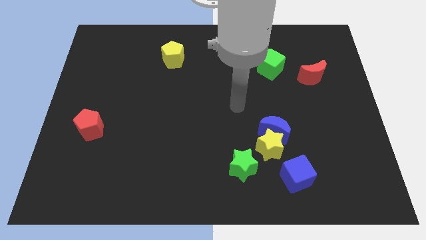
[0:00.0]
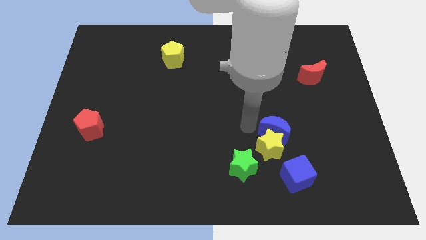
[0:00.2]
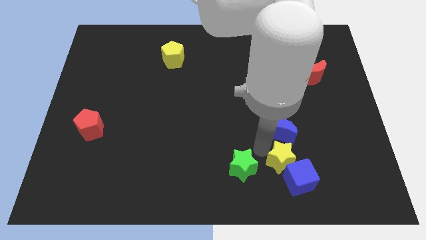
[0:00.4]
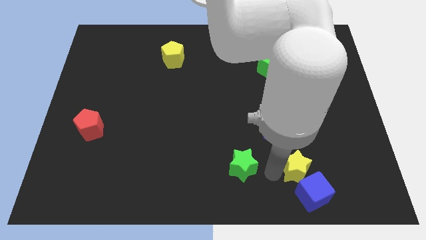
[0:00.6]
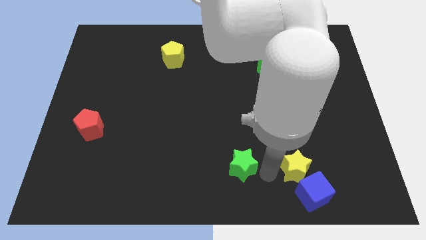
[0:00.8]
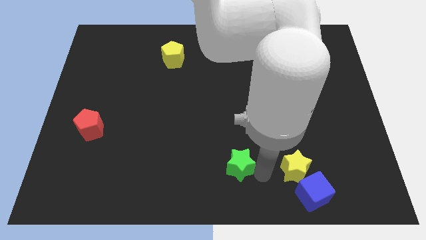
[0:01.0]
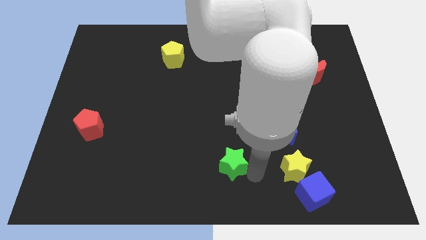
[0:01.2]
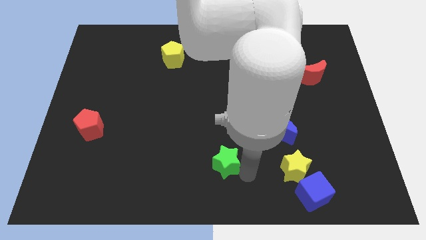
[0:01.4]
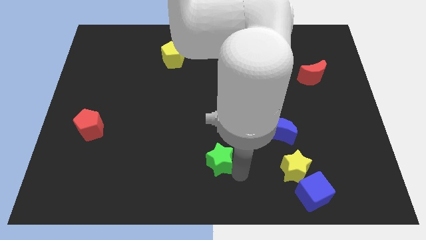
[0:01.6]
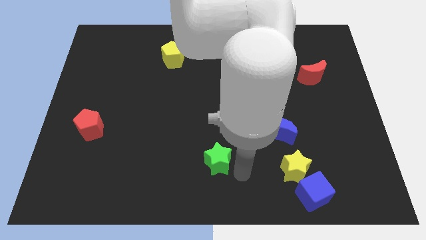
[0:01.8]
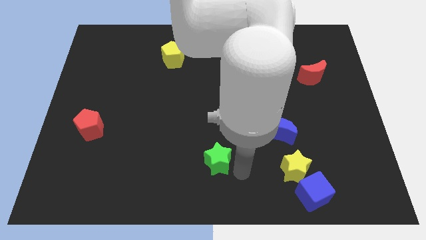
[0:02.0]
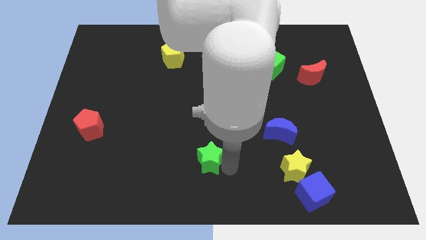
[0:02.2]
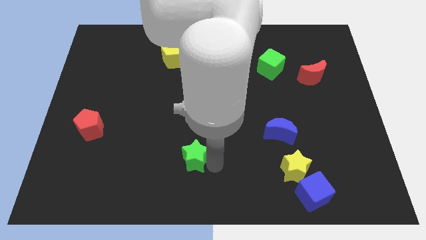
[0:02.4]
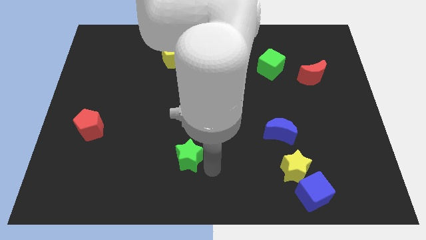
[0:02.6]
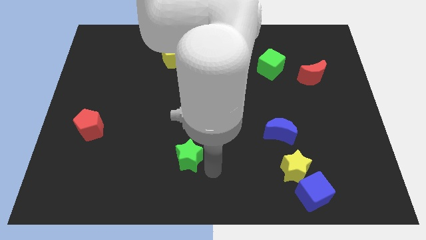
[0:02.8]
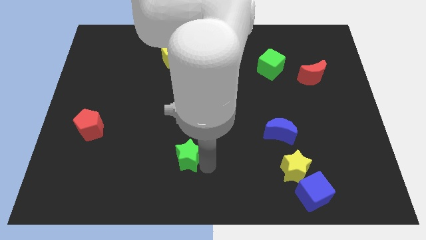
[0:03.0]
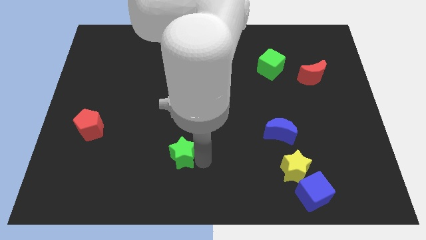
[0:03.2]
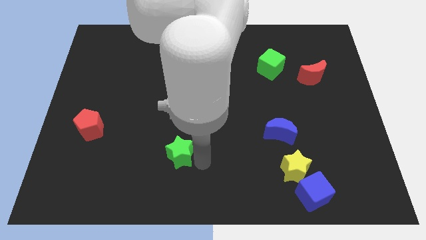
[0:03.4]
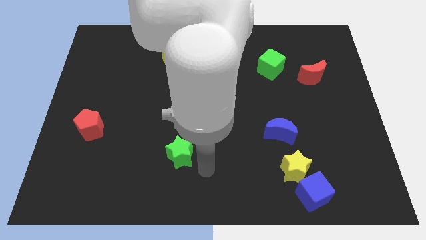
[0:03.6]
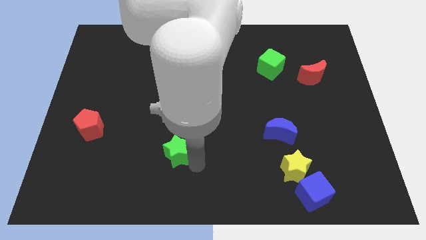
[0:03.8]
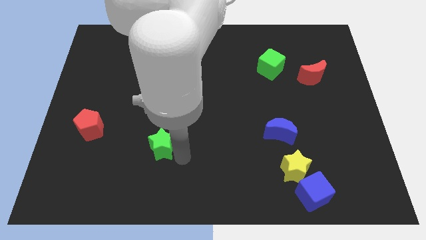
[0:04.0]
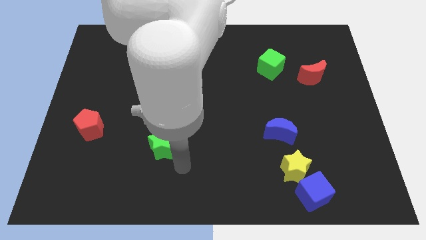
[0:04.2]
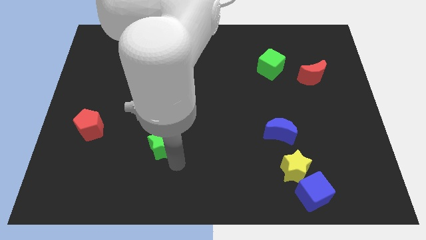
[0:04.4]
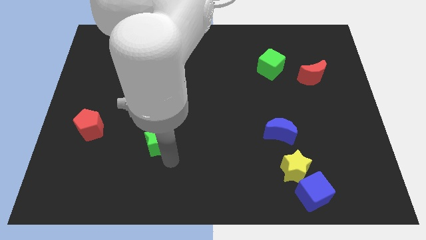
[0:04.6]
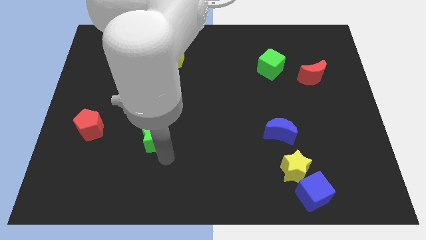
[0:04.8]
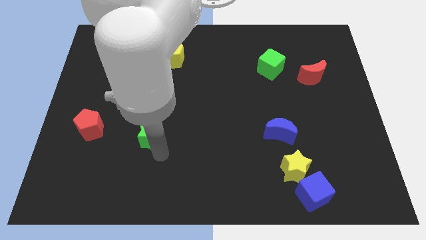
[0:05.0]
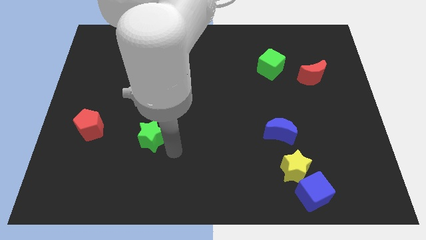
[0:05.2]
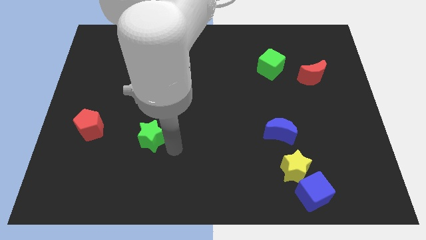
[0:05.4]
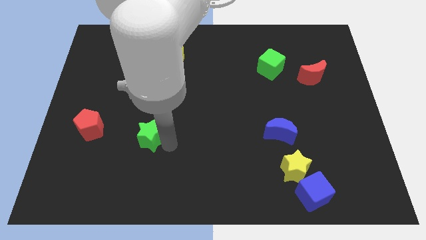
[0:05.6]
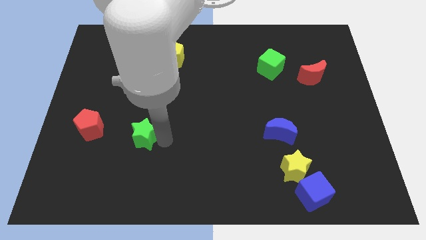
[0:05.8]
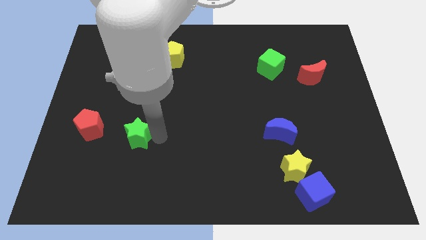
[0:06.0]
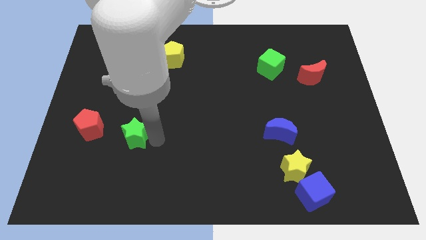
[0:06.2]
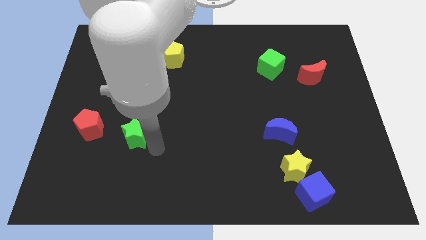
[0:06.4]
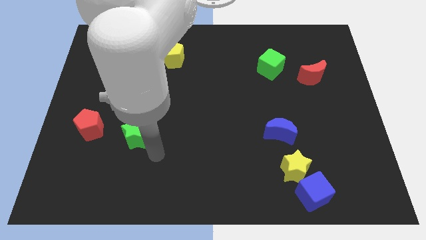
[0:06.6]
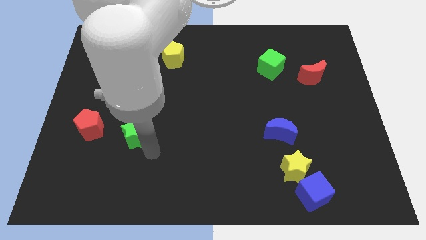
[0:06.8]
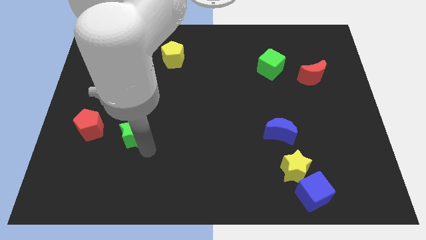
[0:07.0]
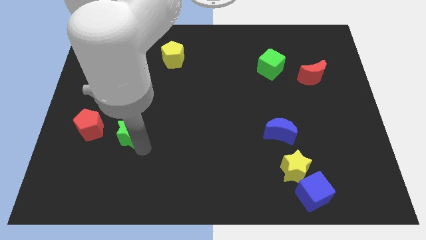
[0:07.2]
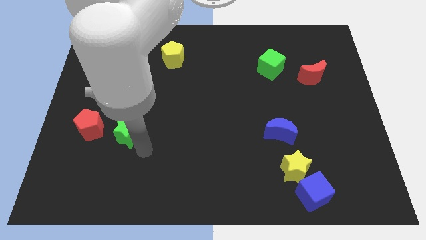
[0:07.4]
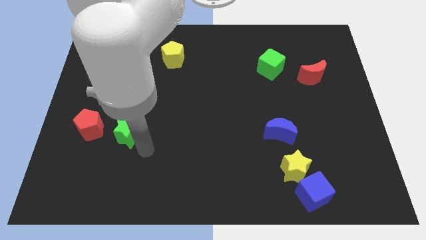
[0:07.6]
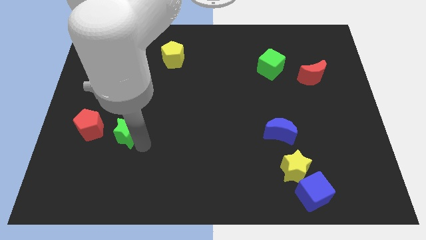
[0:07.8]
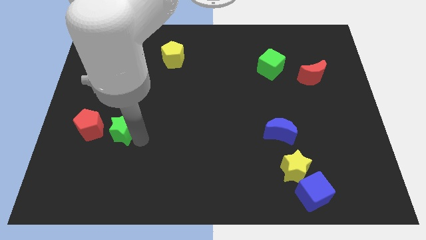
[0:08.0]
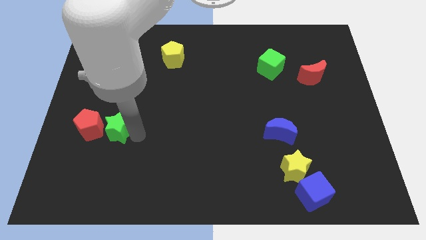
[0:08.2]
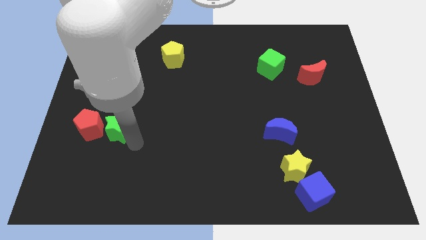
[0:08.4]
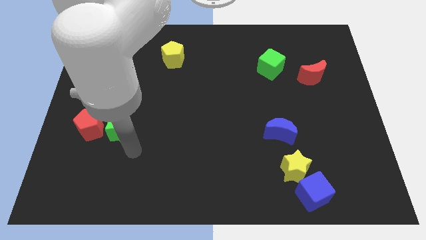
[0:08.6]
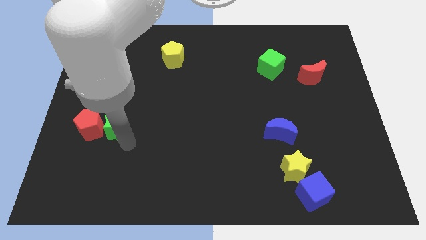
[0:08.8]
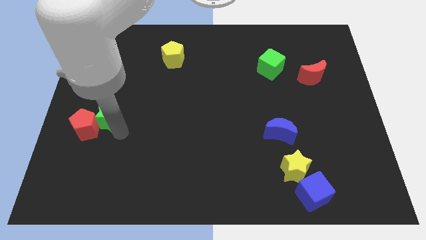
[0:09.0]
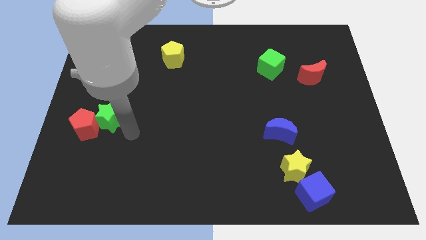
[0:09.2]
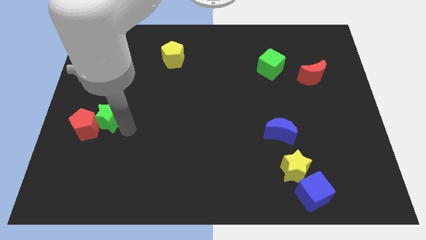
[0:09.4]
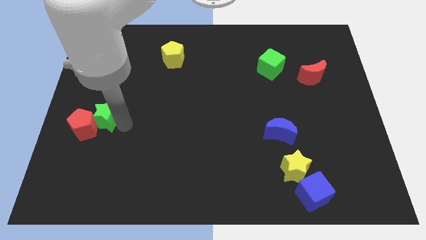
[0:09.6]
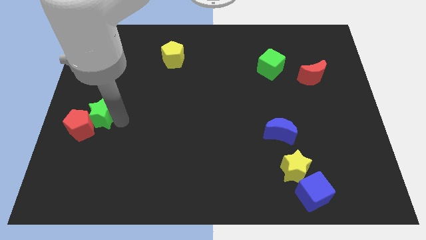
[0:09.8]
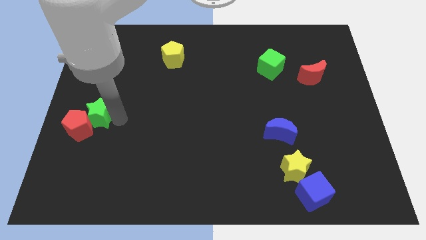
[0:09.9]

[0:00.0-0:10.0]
move the green star to the left side of the board

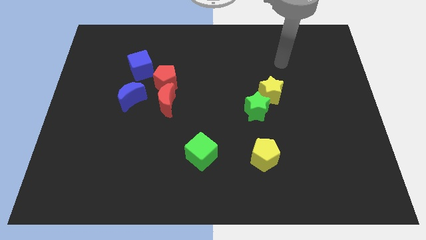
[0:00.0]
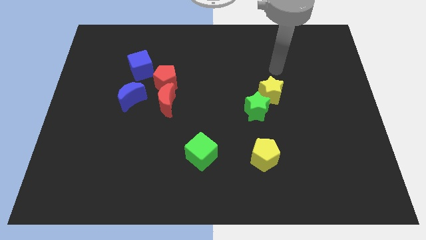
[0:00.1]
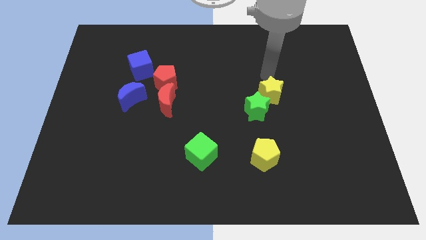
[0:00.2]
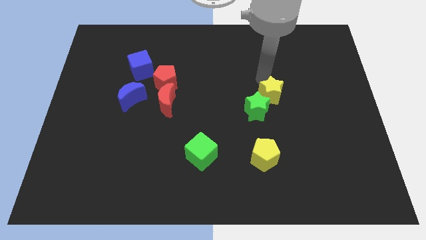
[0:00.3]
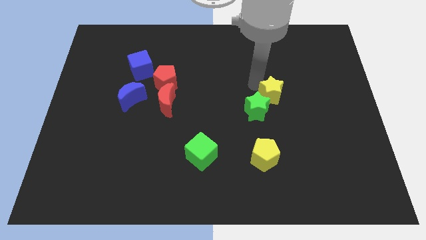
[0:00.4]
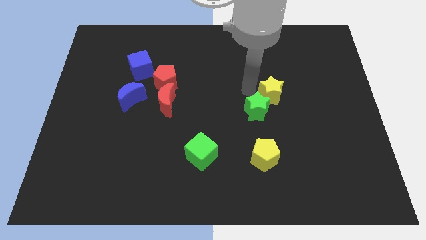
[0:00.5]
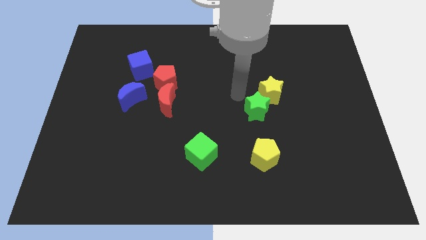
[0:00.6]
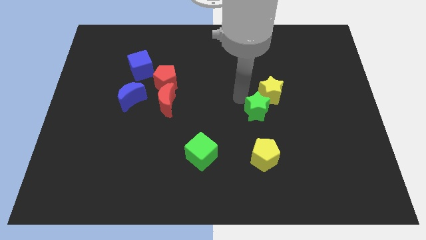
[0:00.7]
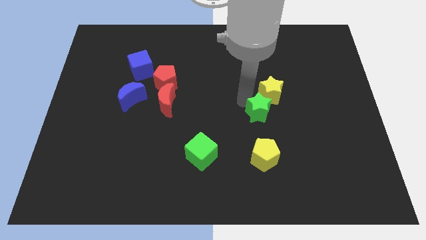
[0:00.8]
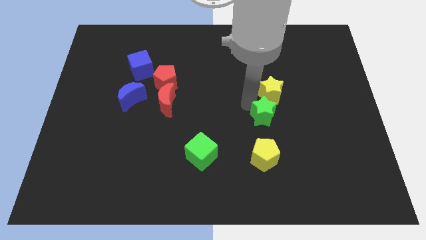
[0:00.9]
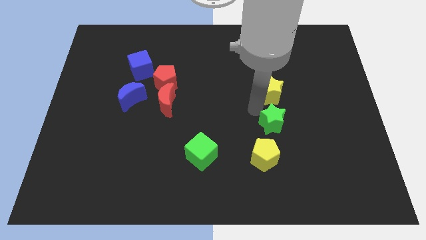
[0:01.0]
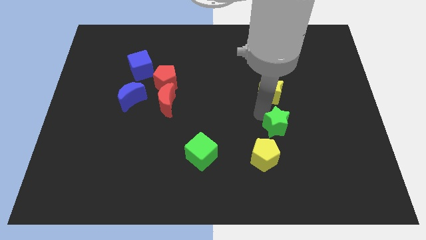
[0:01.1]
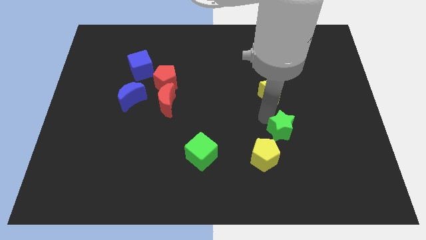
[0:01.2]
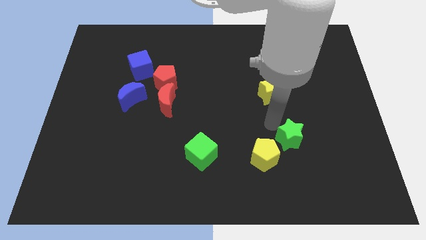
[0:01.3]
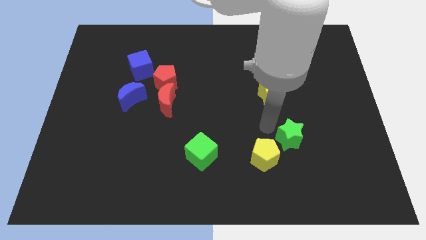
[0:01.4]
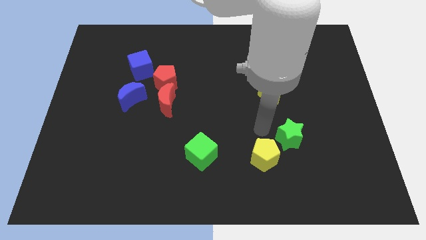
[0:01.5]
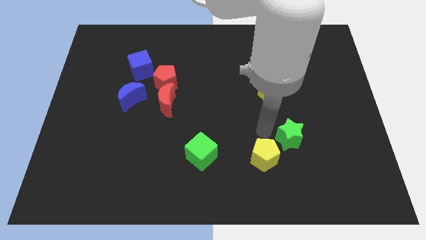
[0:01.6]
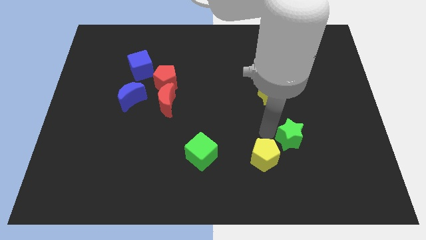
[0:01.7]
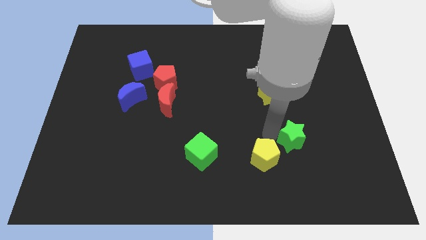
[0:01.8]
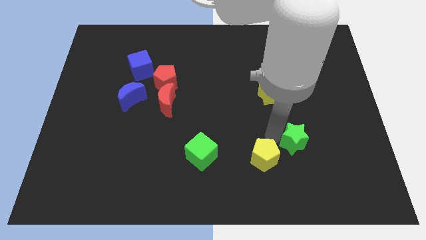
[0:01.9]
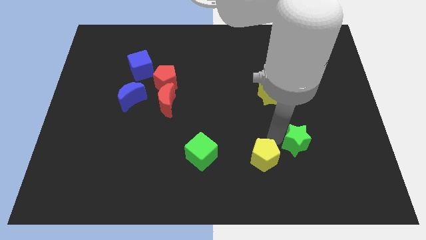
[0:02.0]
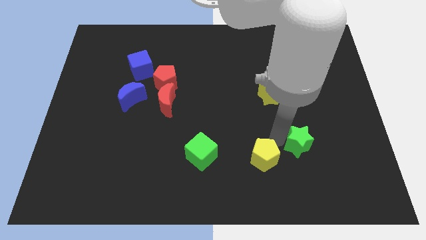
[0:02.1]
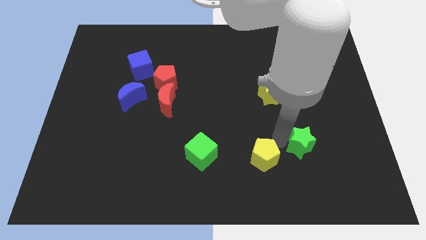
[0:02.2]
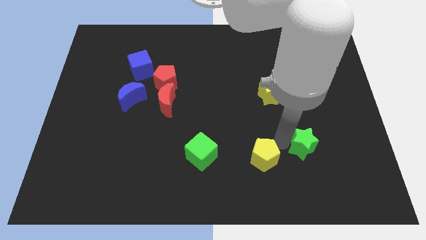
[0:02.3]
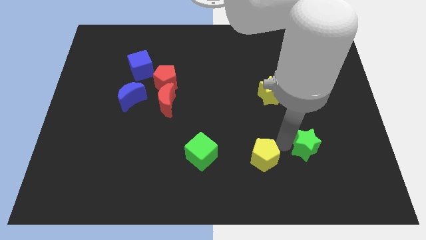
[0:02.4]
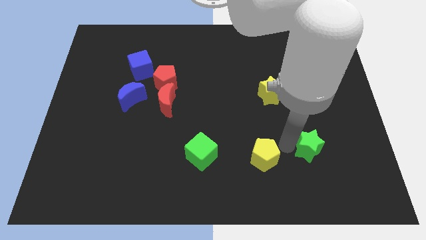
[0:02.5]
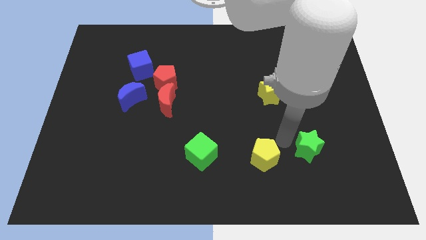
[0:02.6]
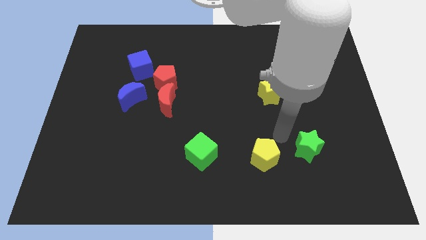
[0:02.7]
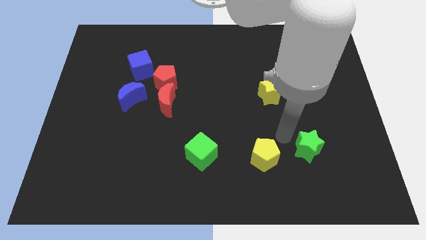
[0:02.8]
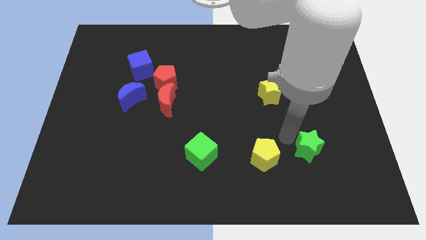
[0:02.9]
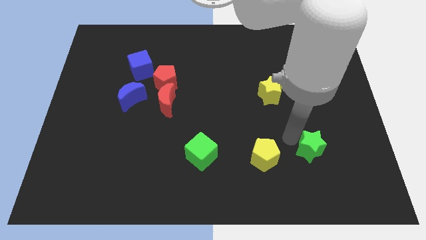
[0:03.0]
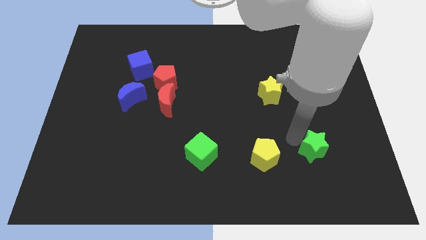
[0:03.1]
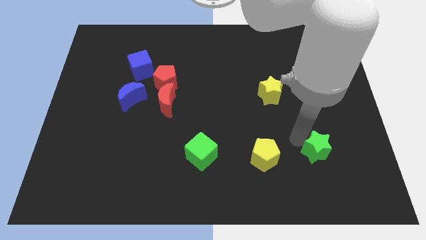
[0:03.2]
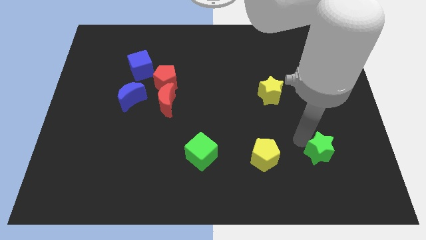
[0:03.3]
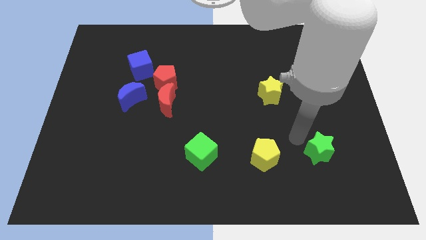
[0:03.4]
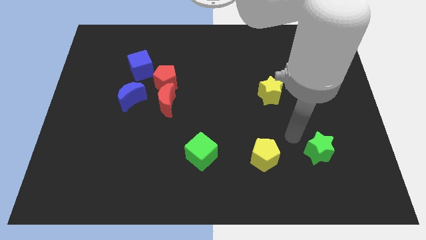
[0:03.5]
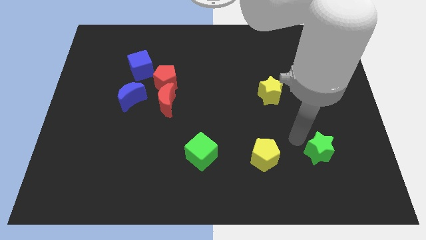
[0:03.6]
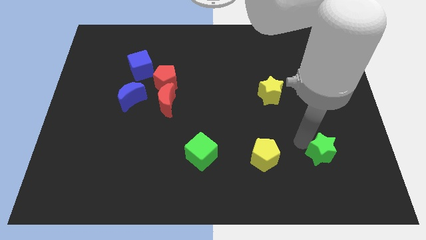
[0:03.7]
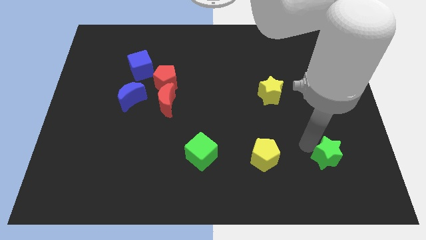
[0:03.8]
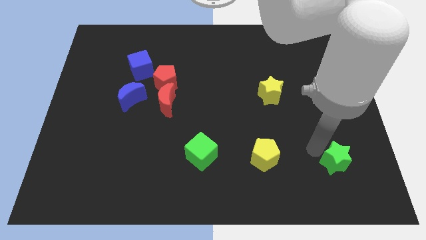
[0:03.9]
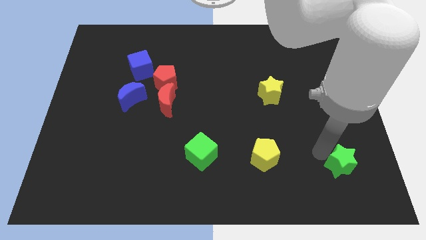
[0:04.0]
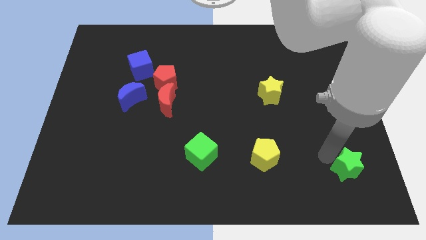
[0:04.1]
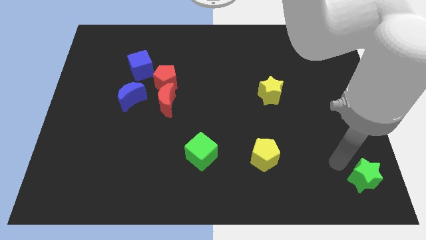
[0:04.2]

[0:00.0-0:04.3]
slide the green star to the bottom right corner
